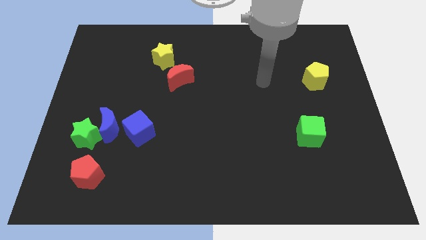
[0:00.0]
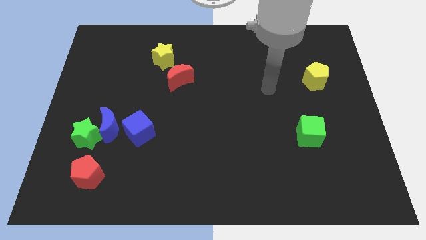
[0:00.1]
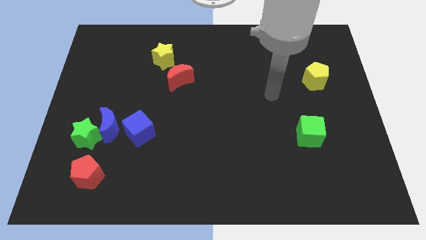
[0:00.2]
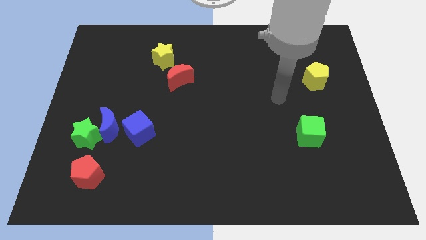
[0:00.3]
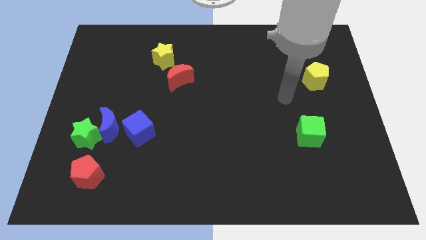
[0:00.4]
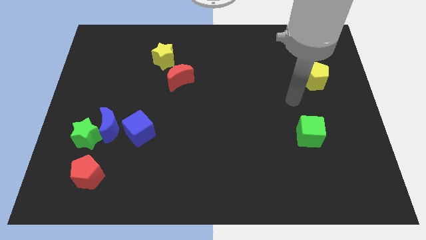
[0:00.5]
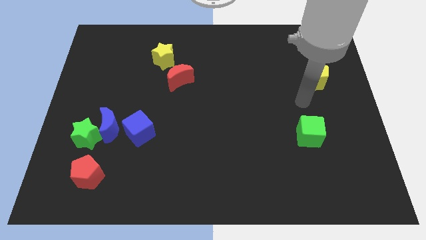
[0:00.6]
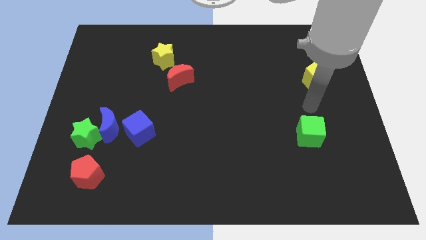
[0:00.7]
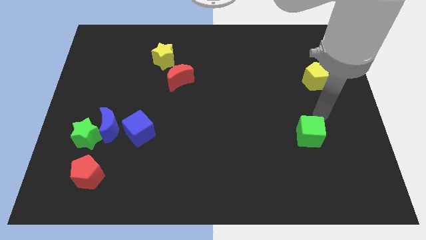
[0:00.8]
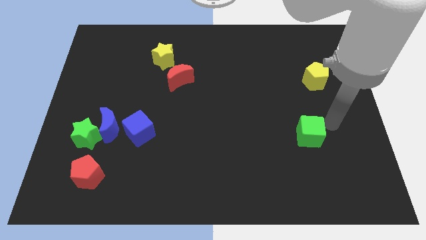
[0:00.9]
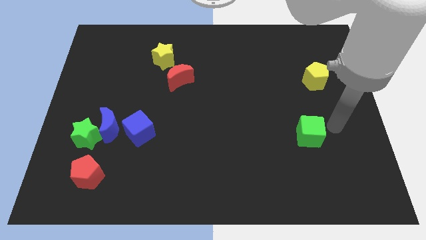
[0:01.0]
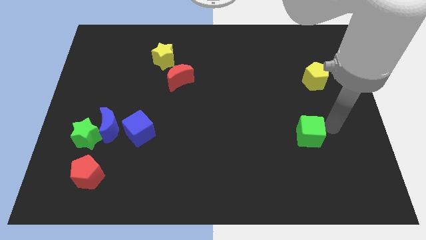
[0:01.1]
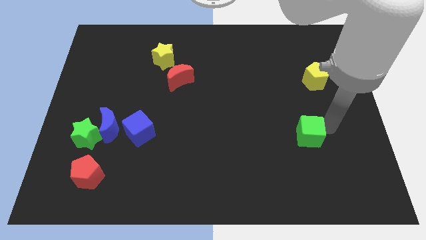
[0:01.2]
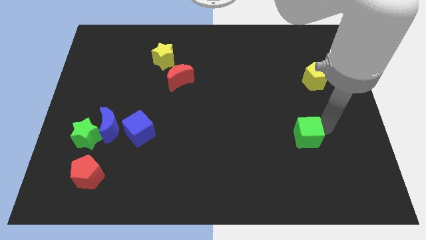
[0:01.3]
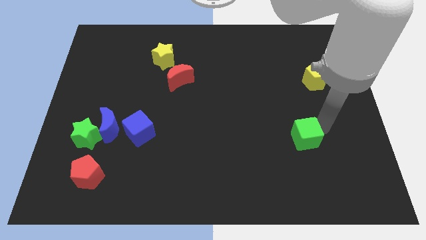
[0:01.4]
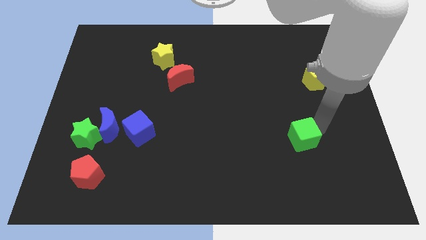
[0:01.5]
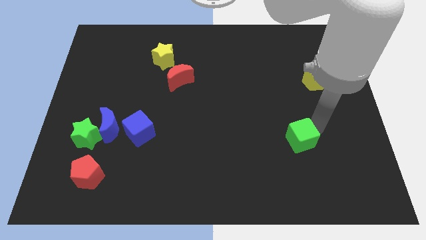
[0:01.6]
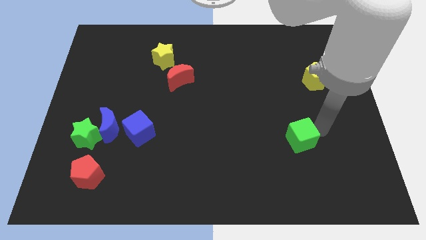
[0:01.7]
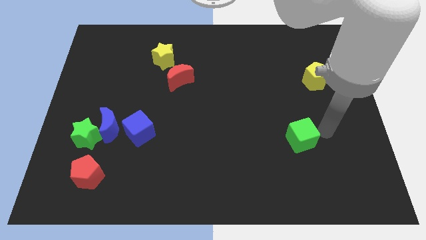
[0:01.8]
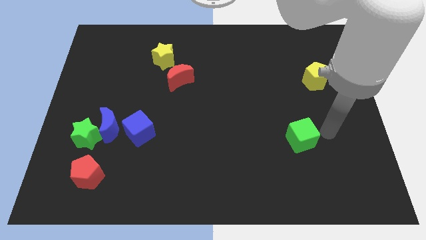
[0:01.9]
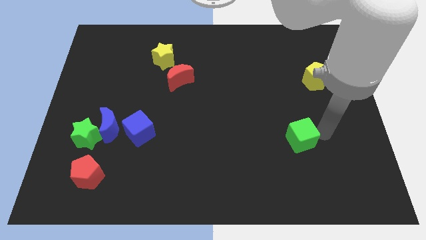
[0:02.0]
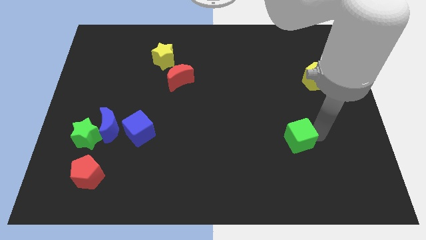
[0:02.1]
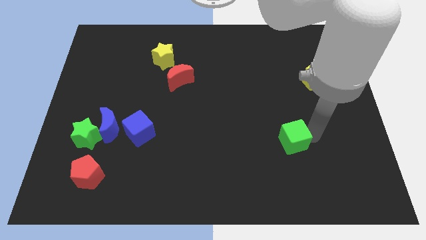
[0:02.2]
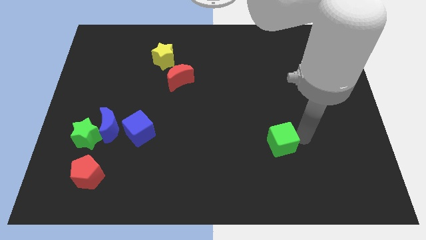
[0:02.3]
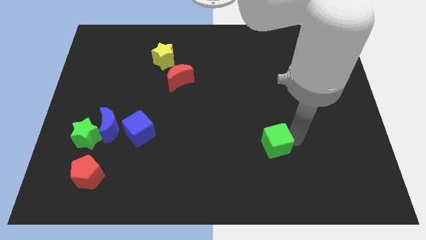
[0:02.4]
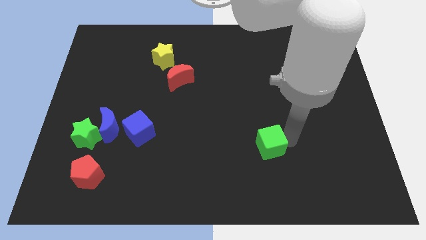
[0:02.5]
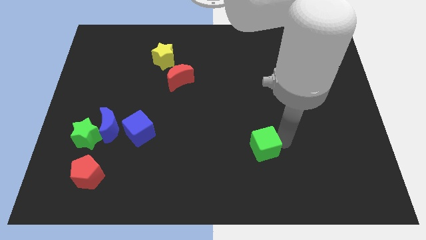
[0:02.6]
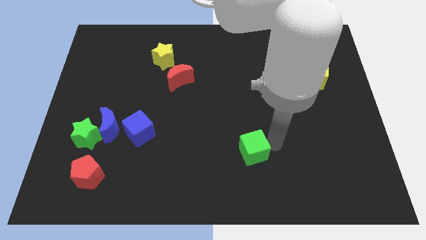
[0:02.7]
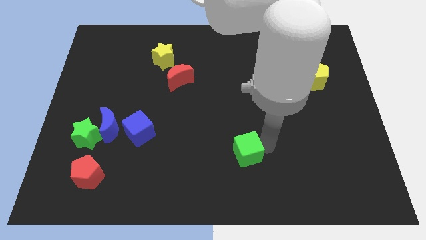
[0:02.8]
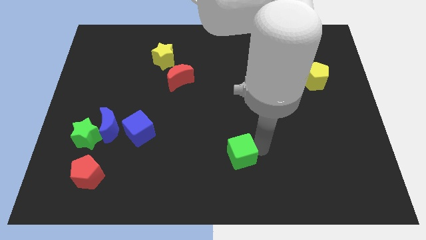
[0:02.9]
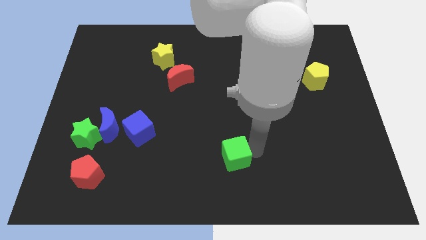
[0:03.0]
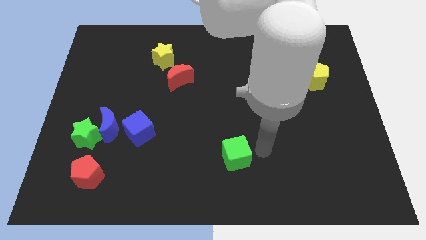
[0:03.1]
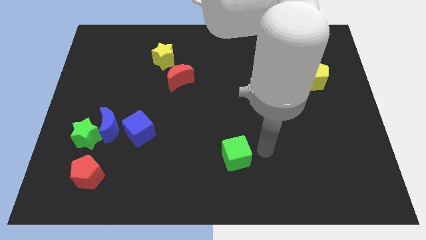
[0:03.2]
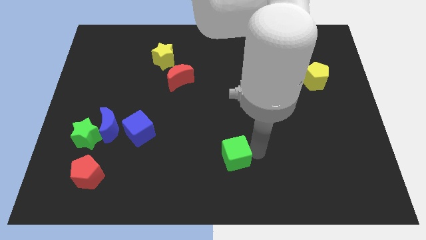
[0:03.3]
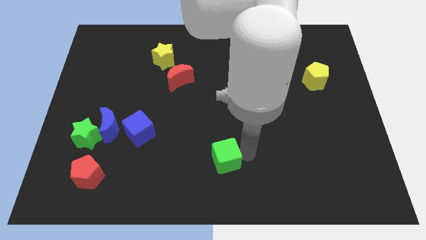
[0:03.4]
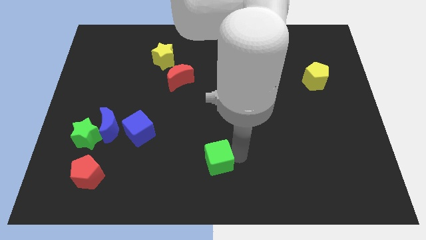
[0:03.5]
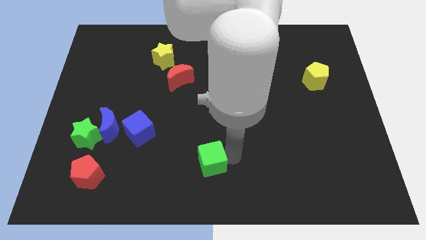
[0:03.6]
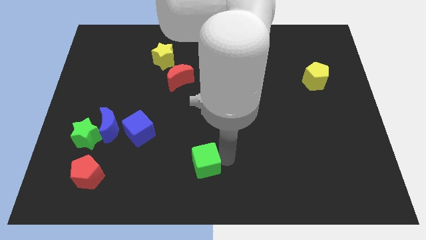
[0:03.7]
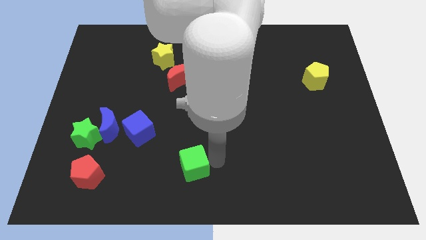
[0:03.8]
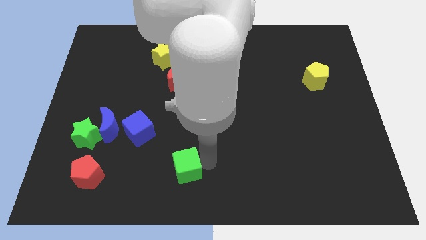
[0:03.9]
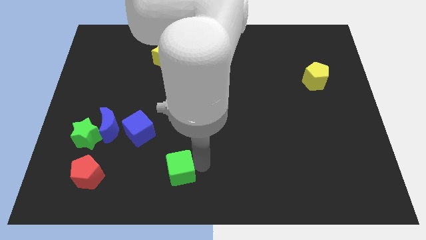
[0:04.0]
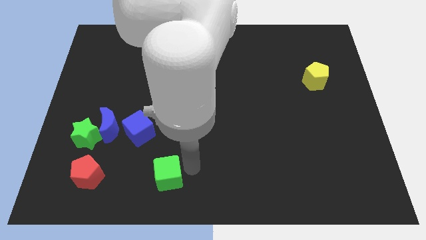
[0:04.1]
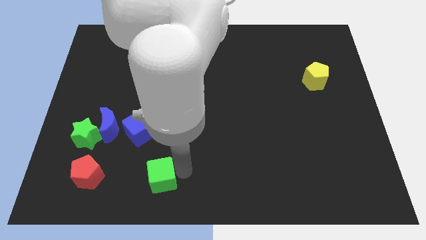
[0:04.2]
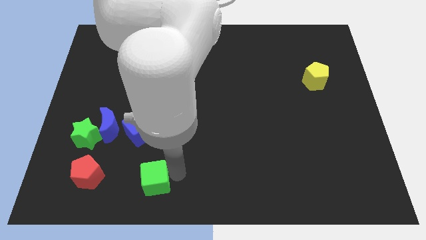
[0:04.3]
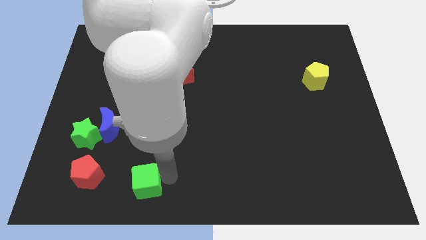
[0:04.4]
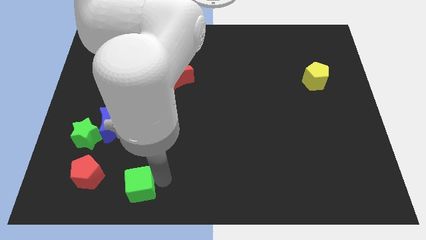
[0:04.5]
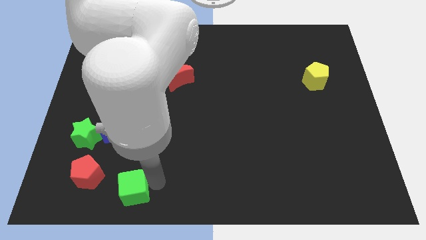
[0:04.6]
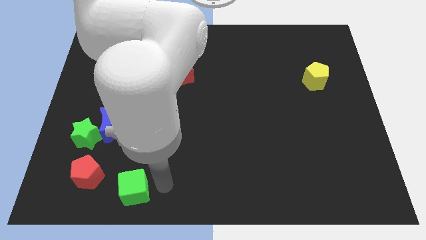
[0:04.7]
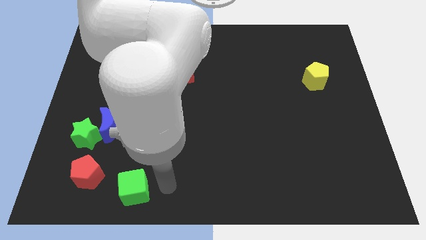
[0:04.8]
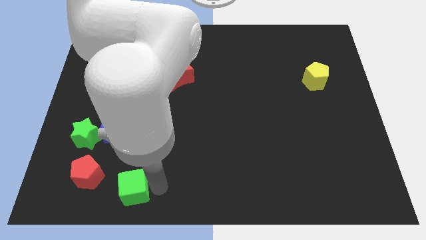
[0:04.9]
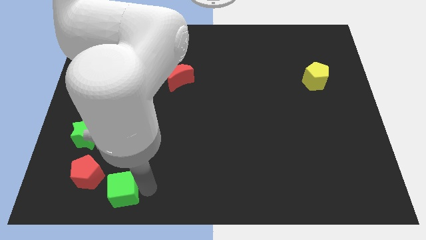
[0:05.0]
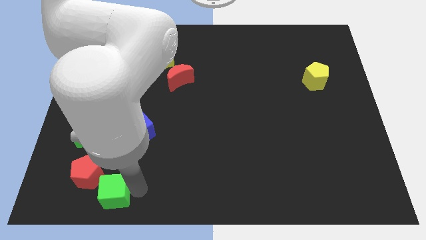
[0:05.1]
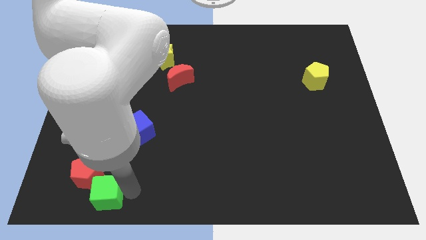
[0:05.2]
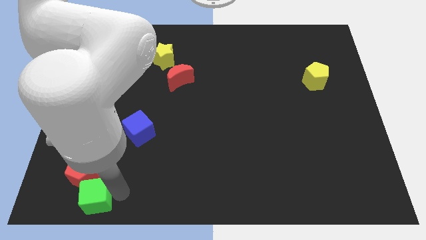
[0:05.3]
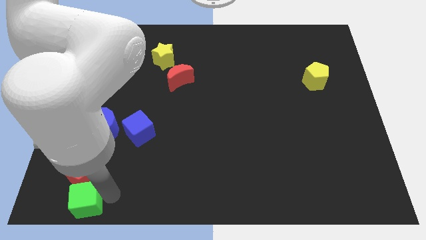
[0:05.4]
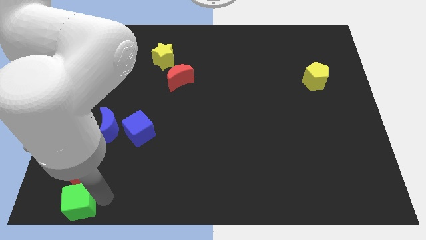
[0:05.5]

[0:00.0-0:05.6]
put the green cube to the lower left corner

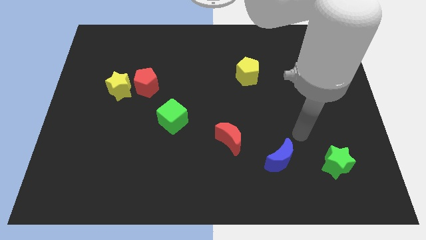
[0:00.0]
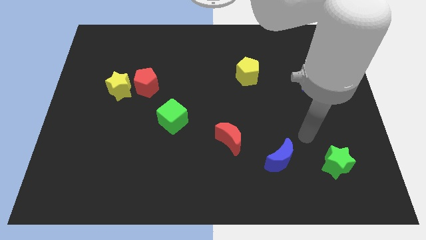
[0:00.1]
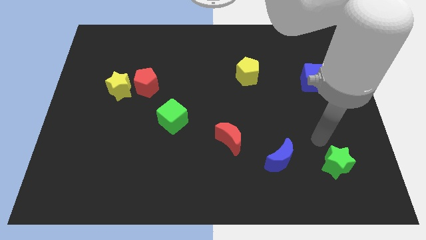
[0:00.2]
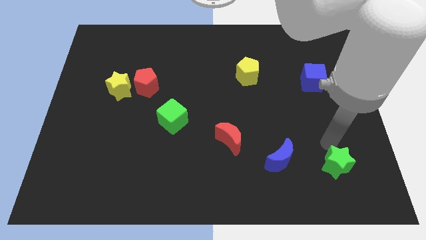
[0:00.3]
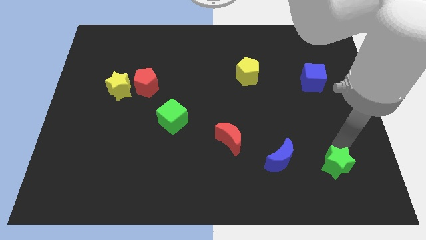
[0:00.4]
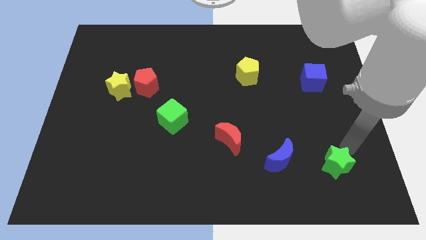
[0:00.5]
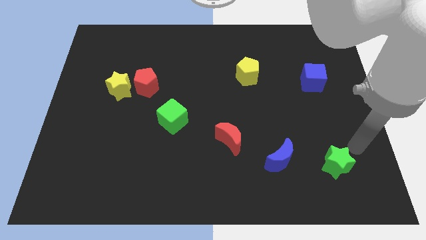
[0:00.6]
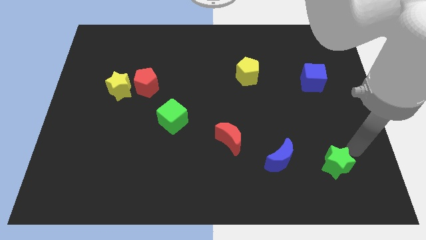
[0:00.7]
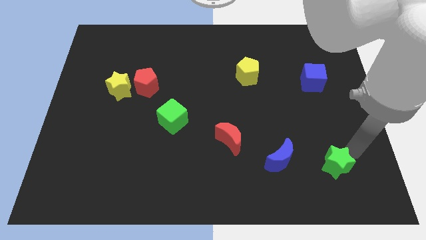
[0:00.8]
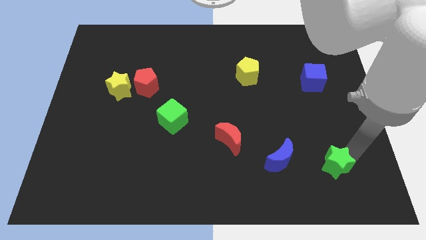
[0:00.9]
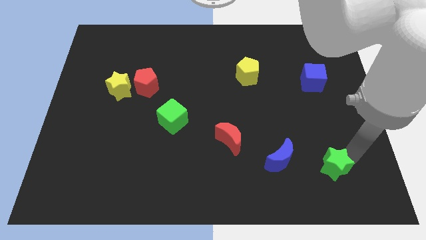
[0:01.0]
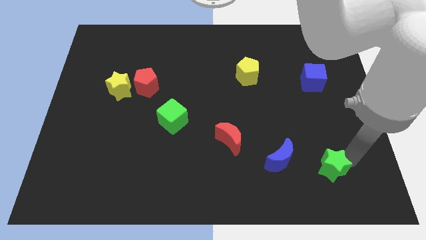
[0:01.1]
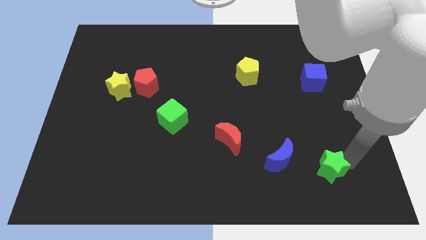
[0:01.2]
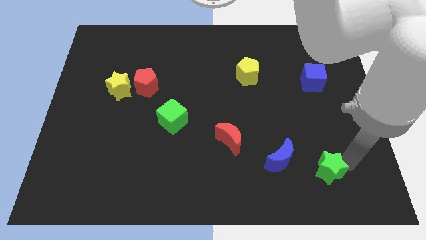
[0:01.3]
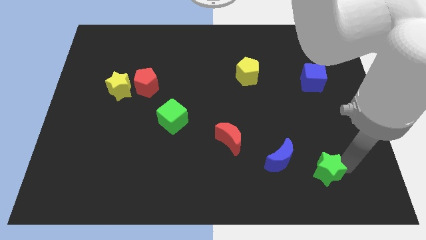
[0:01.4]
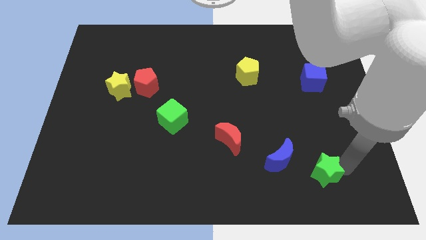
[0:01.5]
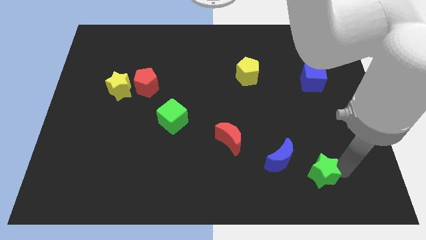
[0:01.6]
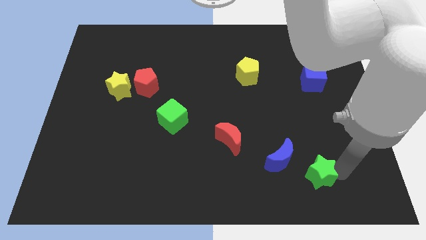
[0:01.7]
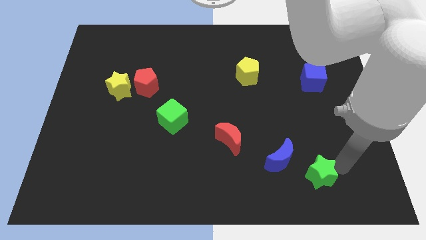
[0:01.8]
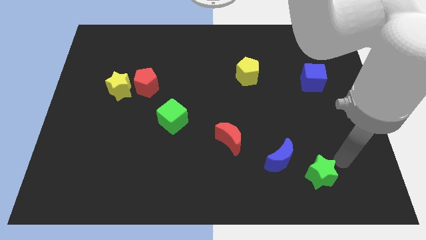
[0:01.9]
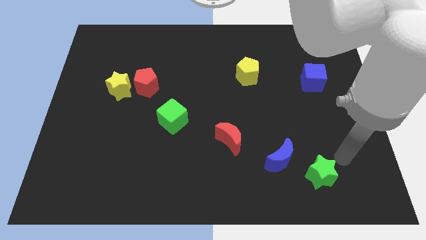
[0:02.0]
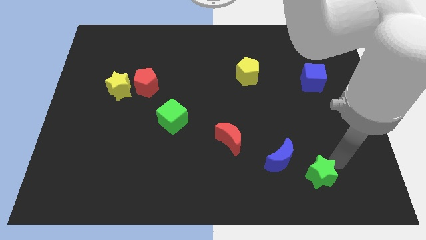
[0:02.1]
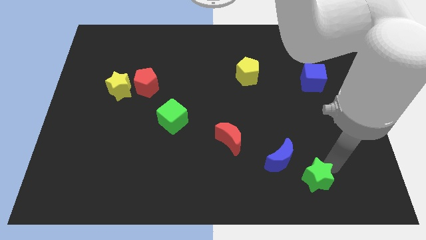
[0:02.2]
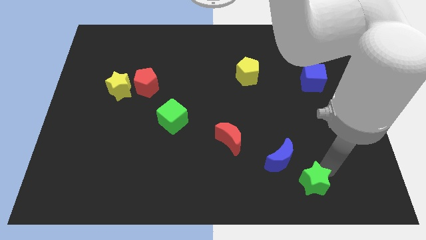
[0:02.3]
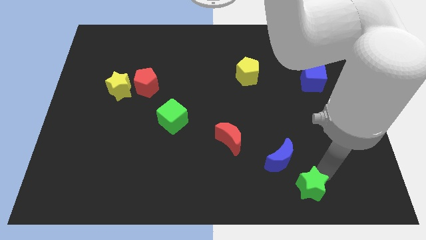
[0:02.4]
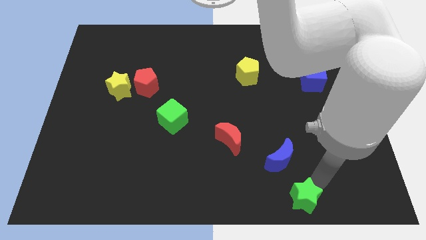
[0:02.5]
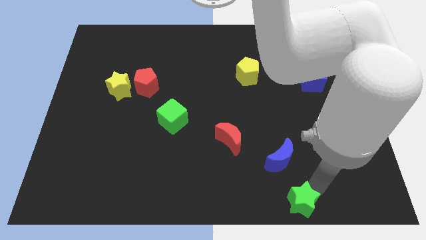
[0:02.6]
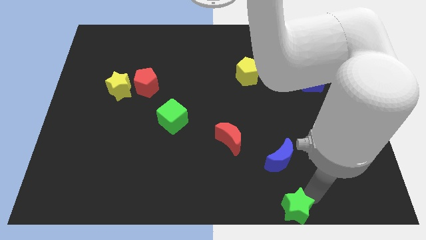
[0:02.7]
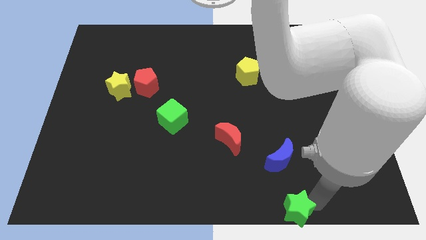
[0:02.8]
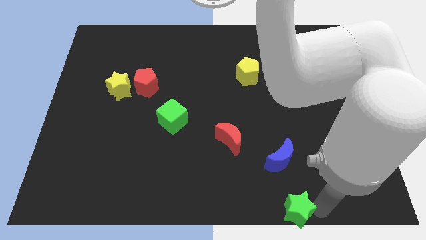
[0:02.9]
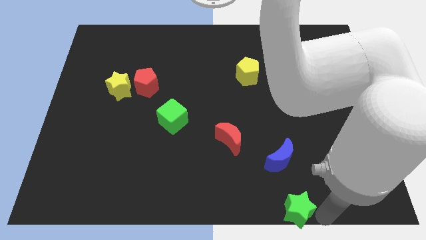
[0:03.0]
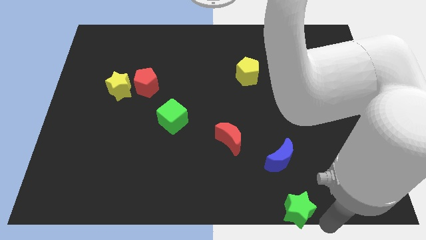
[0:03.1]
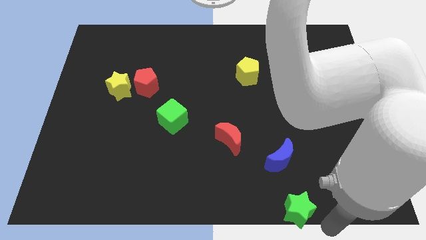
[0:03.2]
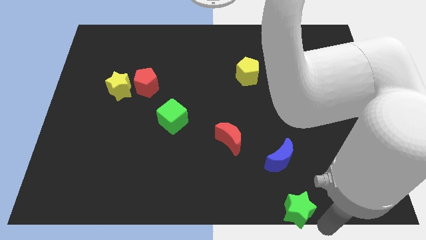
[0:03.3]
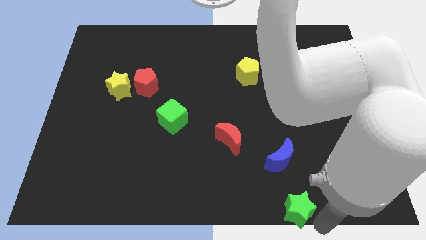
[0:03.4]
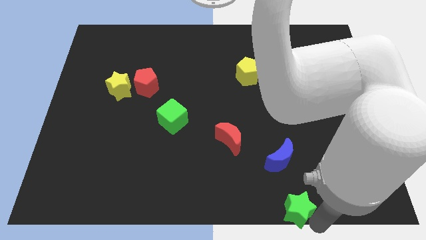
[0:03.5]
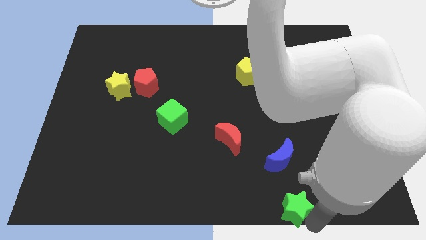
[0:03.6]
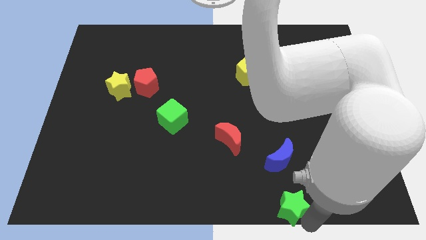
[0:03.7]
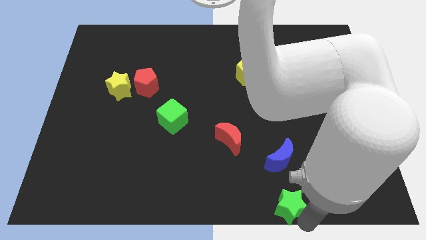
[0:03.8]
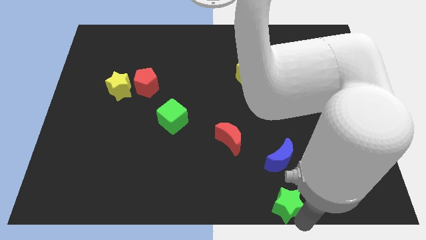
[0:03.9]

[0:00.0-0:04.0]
push the green star to the bottom
